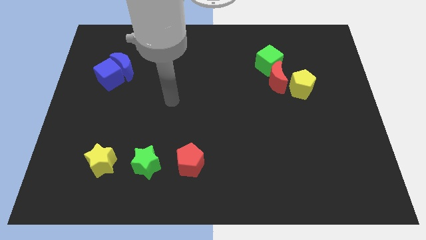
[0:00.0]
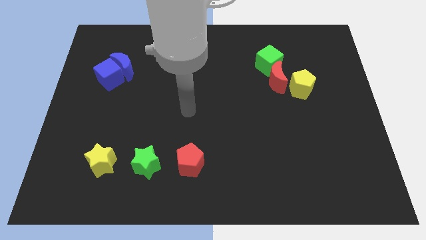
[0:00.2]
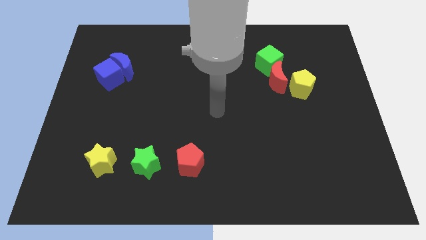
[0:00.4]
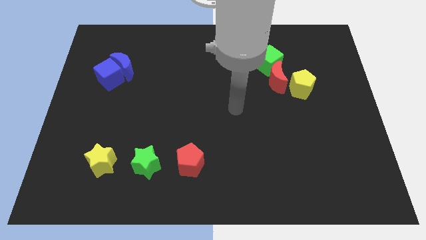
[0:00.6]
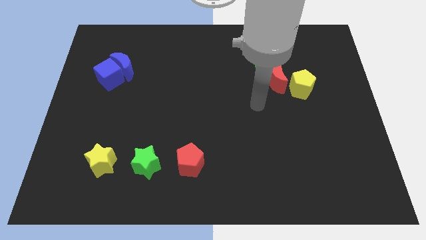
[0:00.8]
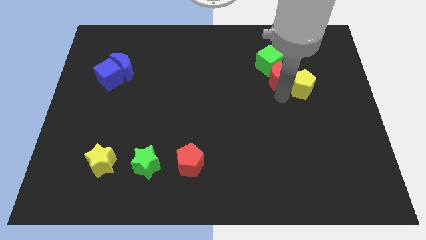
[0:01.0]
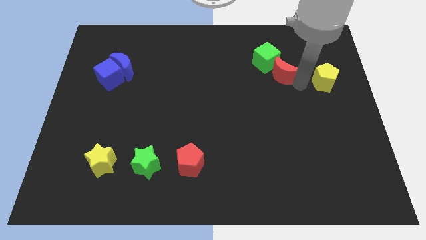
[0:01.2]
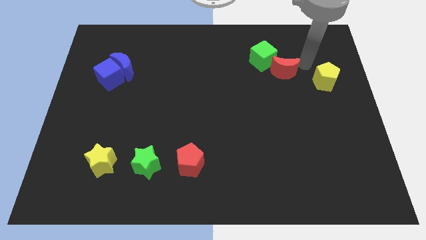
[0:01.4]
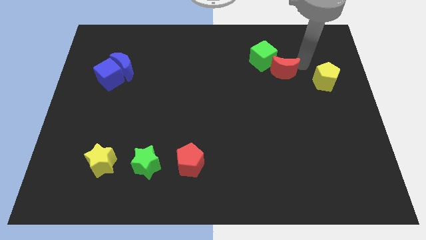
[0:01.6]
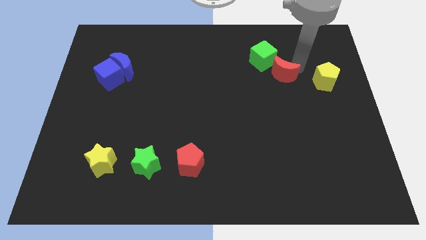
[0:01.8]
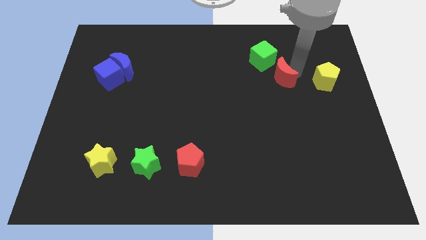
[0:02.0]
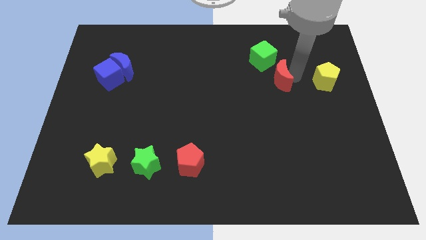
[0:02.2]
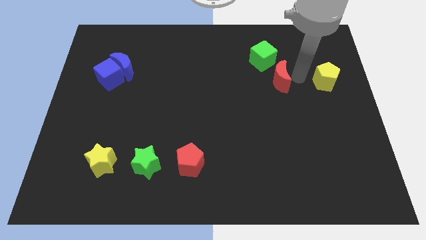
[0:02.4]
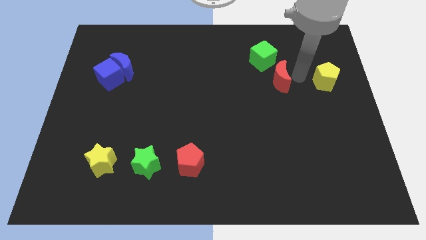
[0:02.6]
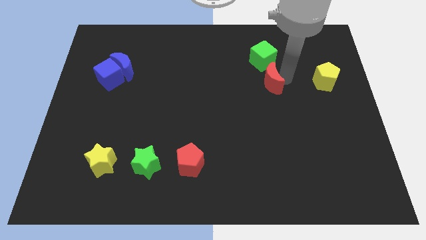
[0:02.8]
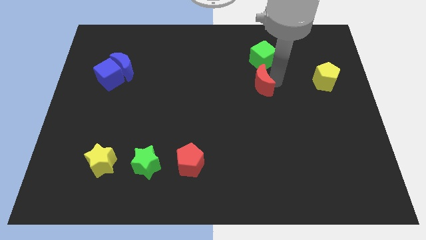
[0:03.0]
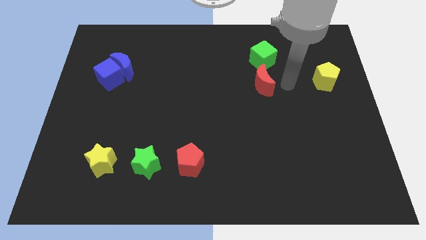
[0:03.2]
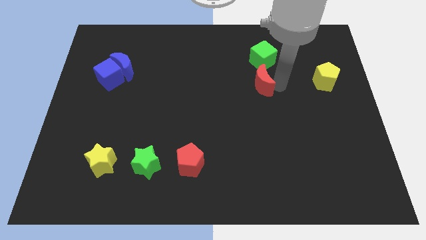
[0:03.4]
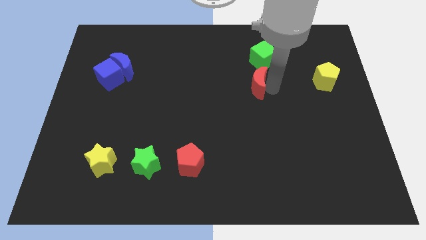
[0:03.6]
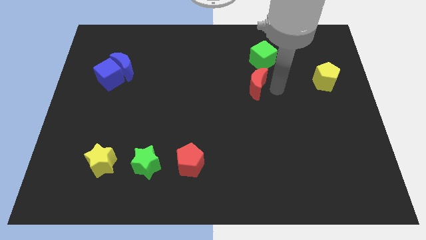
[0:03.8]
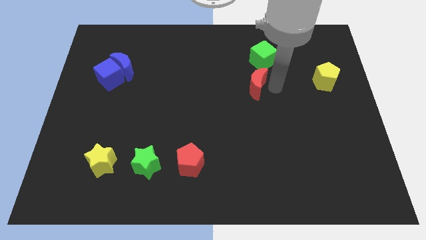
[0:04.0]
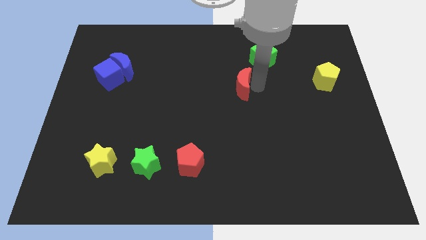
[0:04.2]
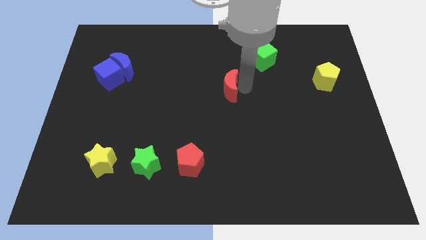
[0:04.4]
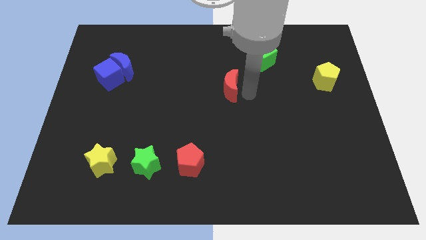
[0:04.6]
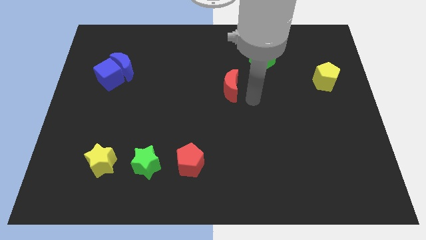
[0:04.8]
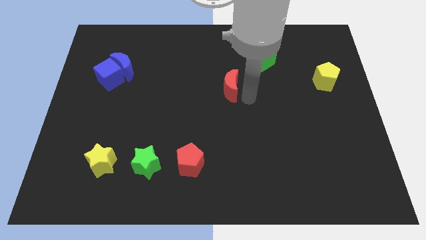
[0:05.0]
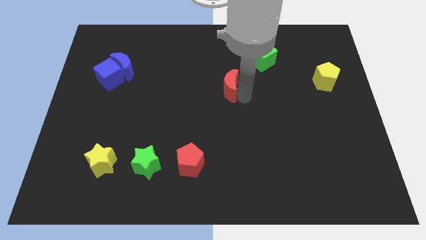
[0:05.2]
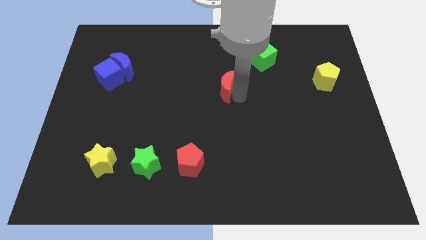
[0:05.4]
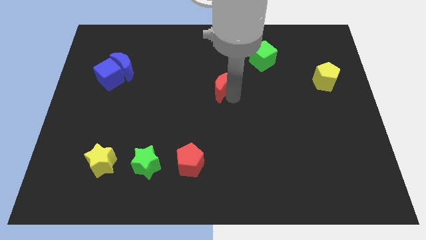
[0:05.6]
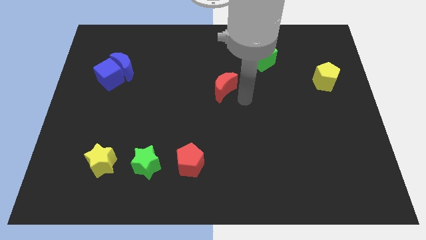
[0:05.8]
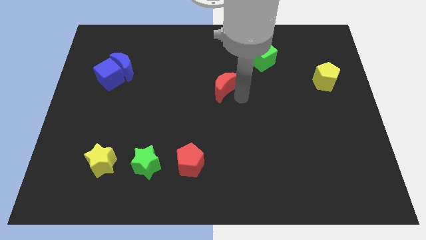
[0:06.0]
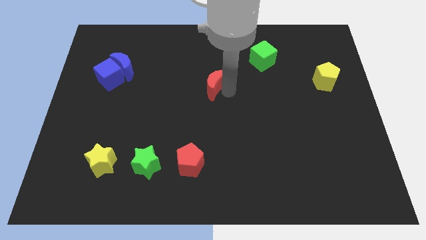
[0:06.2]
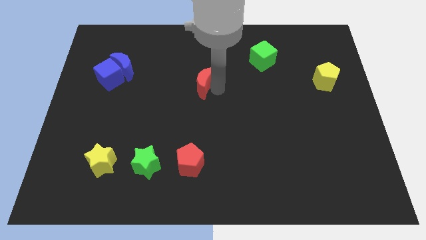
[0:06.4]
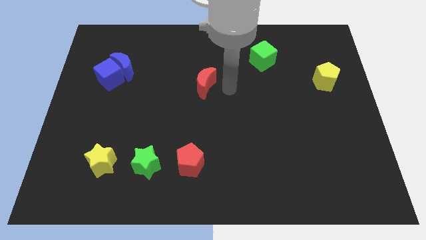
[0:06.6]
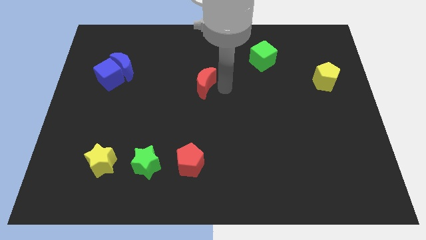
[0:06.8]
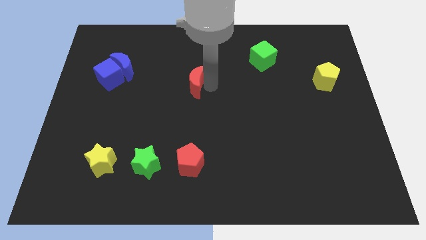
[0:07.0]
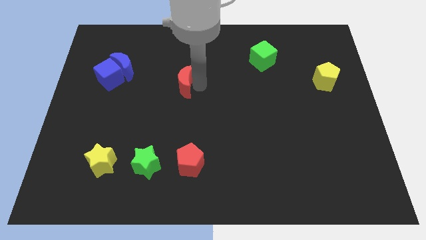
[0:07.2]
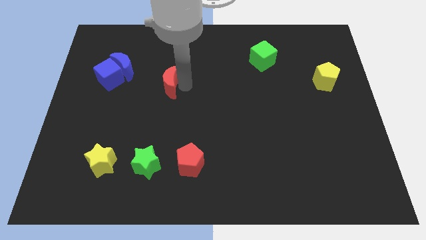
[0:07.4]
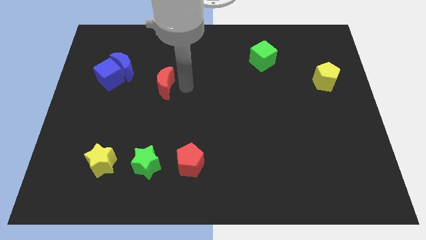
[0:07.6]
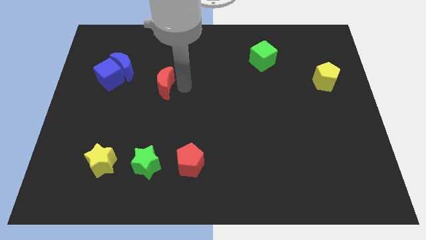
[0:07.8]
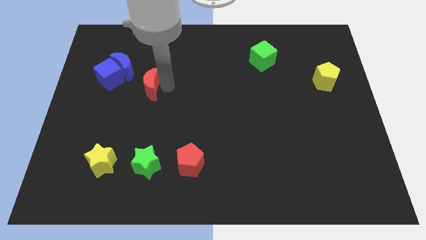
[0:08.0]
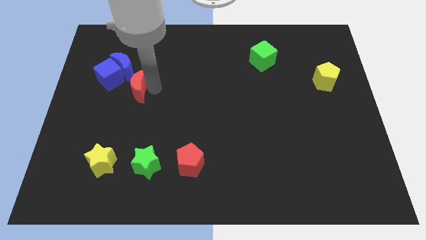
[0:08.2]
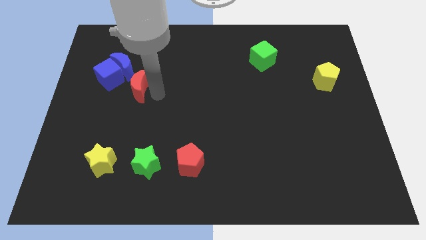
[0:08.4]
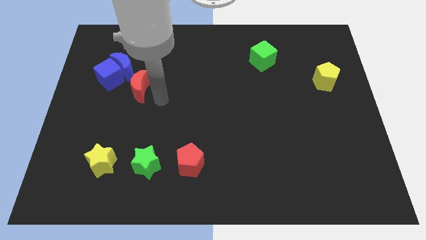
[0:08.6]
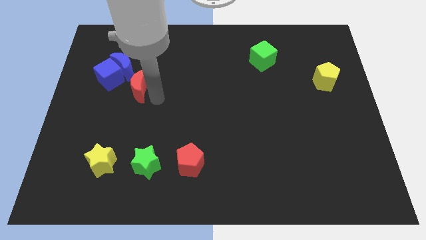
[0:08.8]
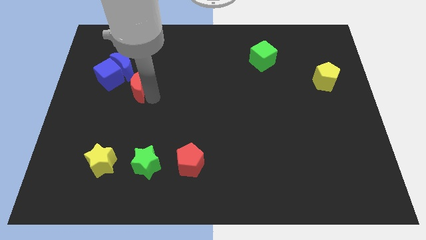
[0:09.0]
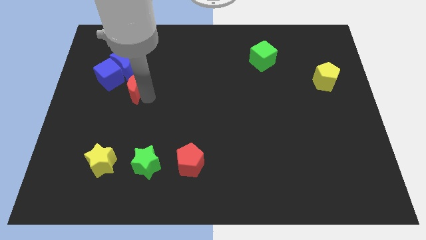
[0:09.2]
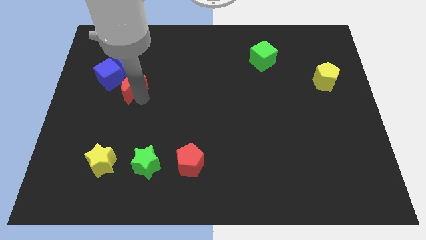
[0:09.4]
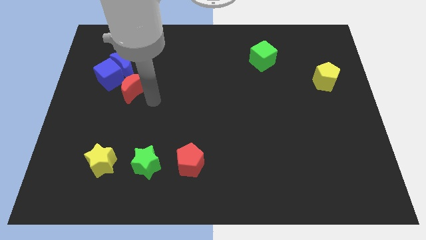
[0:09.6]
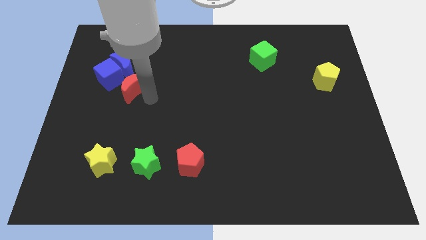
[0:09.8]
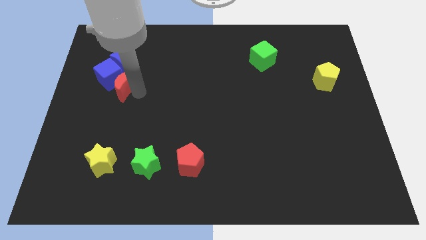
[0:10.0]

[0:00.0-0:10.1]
slide the red moon towards the blue cube

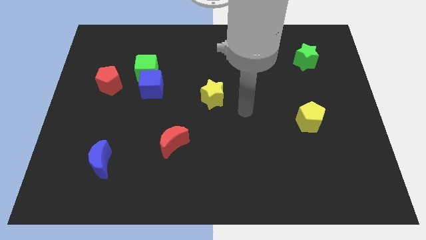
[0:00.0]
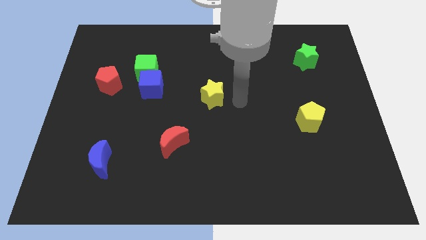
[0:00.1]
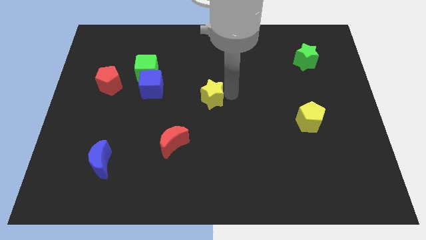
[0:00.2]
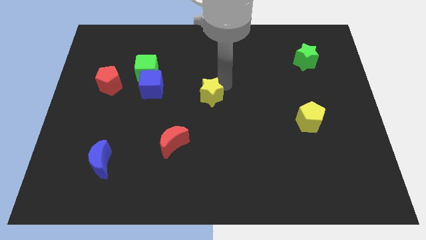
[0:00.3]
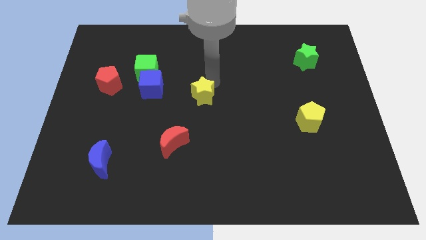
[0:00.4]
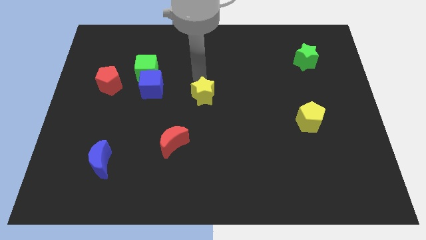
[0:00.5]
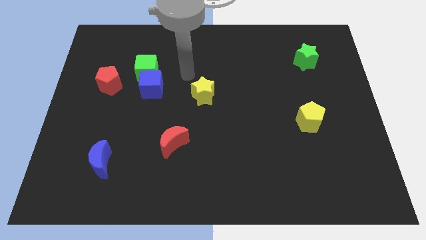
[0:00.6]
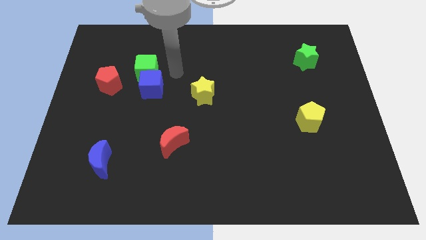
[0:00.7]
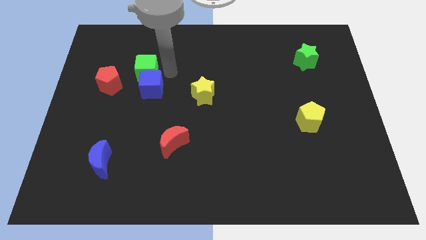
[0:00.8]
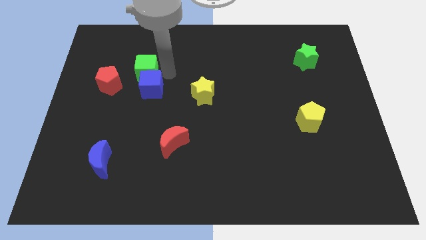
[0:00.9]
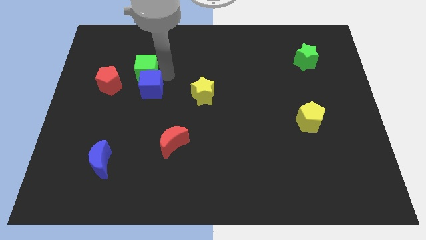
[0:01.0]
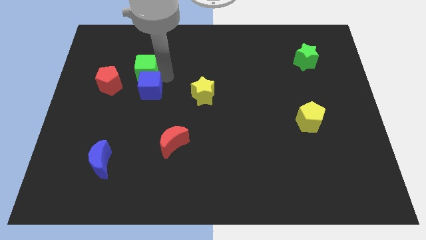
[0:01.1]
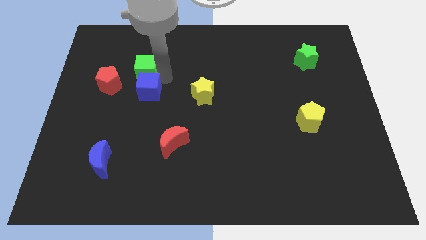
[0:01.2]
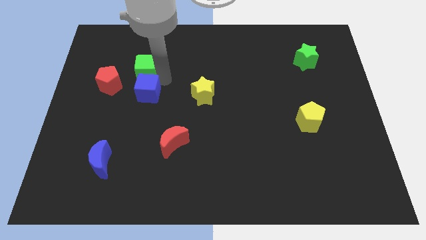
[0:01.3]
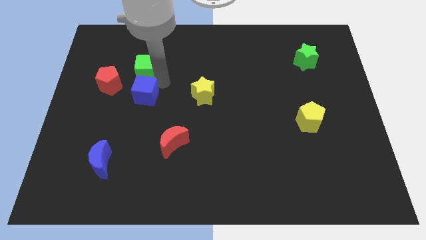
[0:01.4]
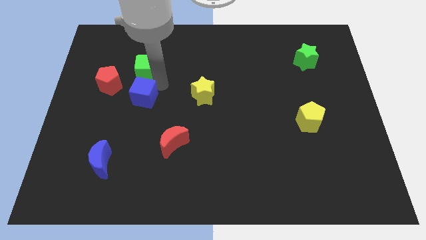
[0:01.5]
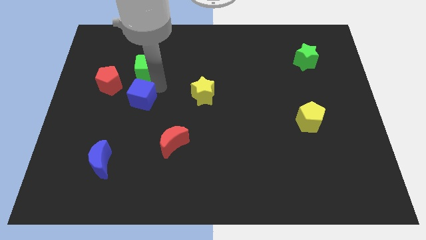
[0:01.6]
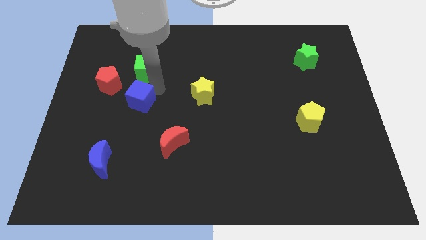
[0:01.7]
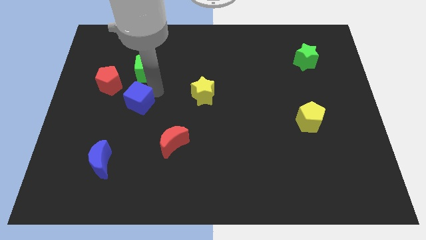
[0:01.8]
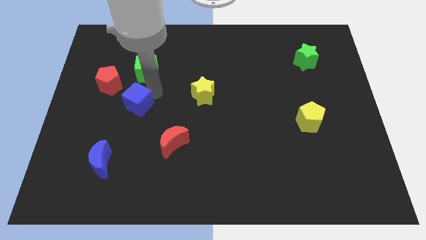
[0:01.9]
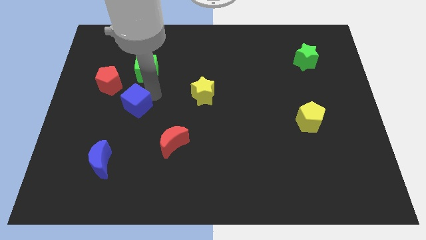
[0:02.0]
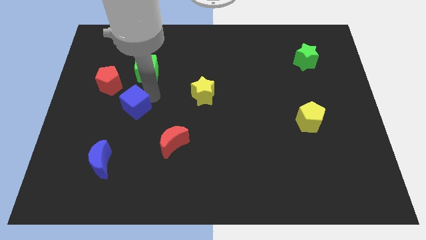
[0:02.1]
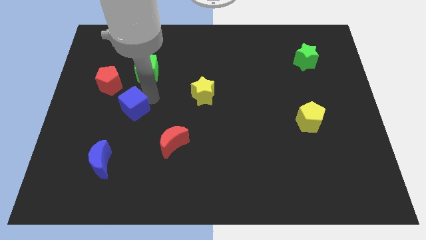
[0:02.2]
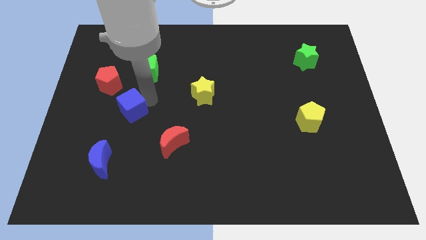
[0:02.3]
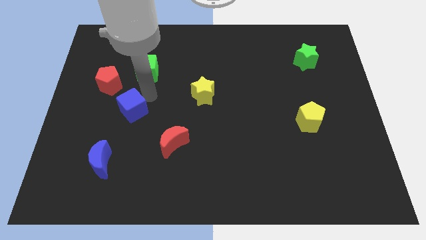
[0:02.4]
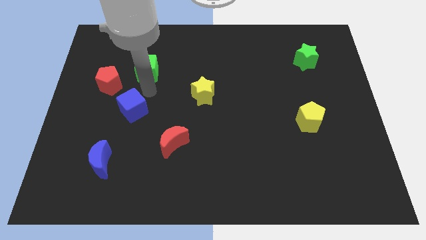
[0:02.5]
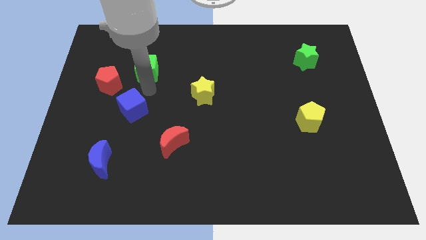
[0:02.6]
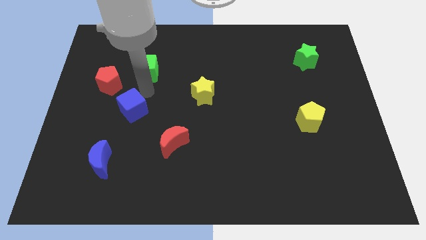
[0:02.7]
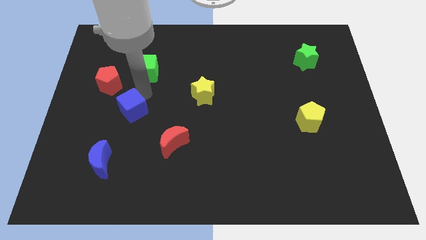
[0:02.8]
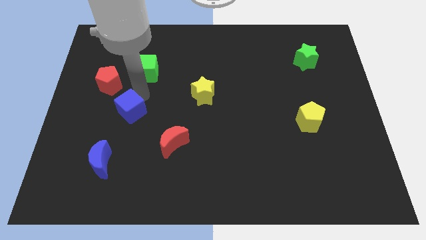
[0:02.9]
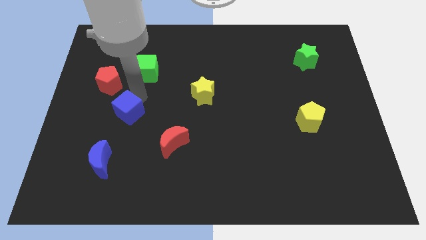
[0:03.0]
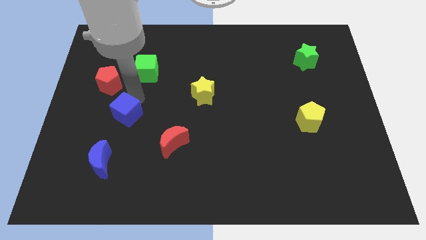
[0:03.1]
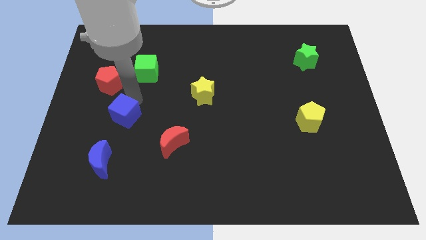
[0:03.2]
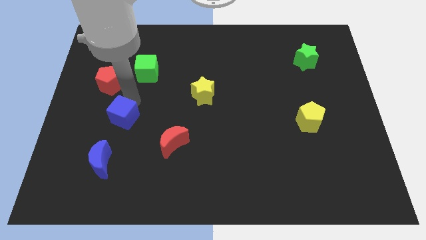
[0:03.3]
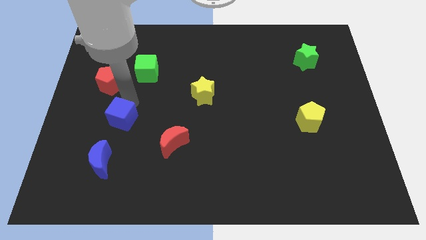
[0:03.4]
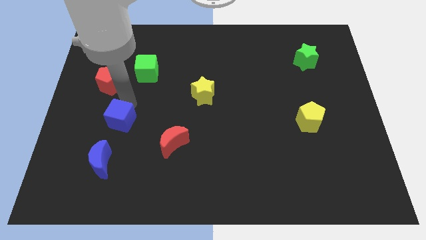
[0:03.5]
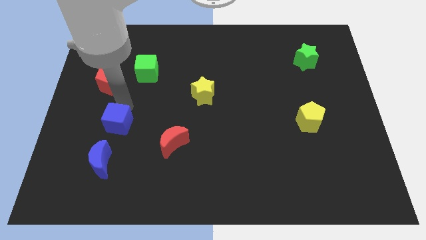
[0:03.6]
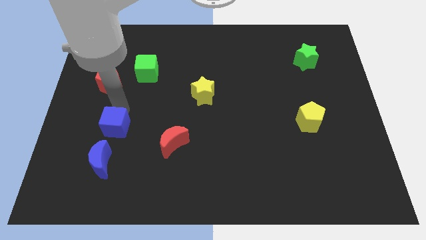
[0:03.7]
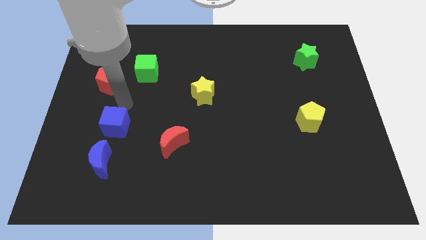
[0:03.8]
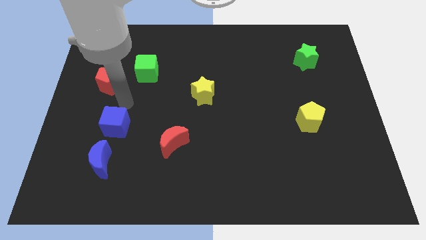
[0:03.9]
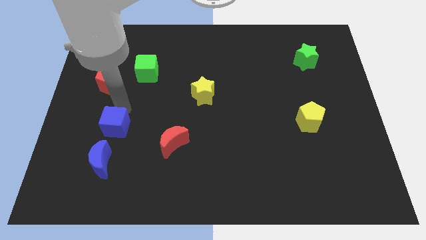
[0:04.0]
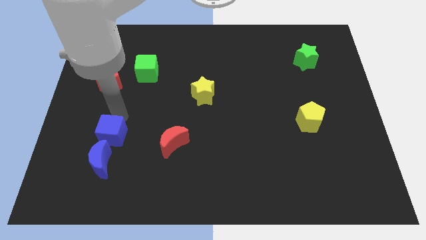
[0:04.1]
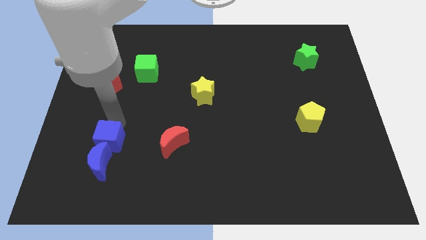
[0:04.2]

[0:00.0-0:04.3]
put the blue cube towards the blue moon
